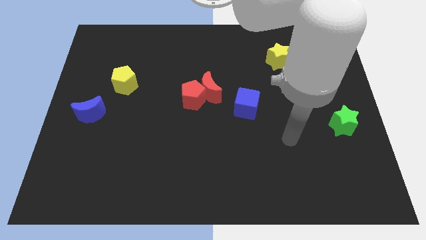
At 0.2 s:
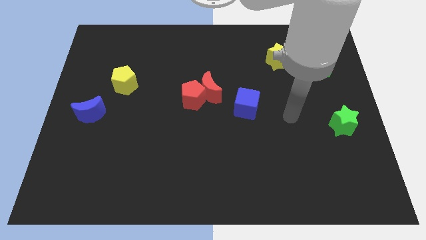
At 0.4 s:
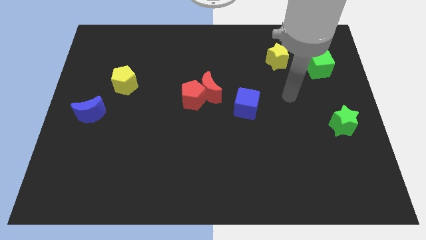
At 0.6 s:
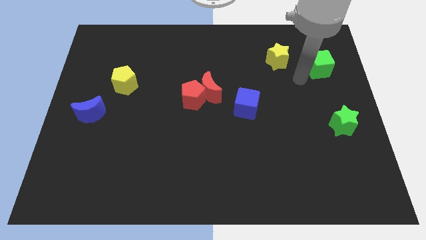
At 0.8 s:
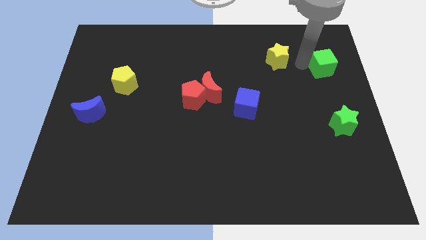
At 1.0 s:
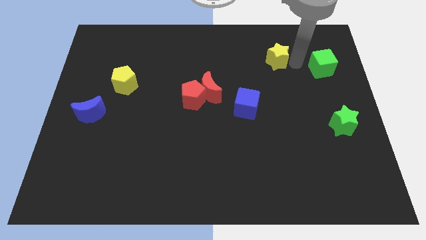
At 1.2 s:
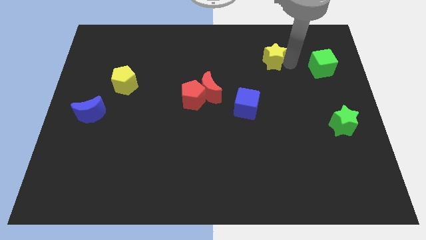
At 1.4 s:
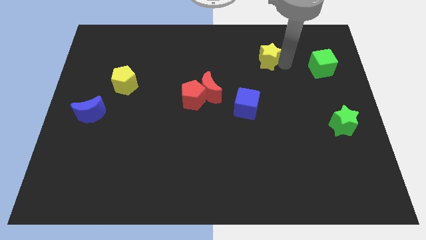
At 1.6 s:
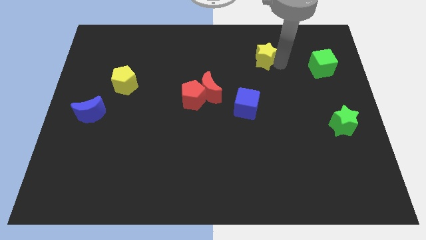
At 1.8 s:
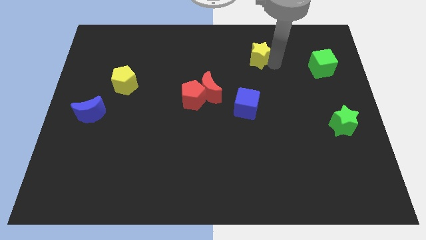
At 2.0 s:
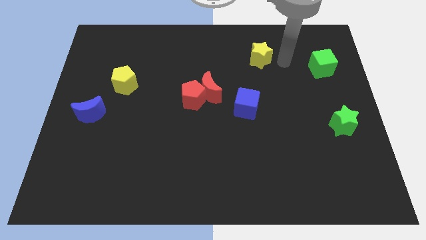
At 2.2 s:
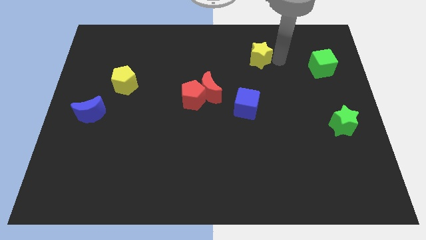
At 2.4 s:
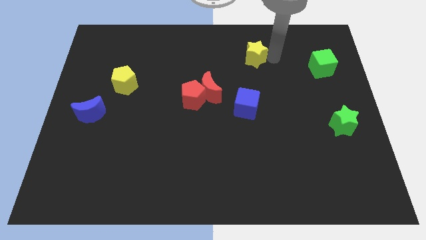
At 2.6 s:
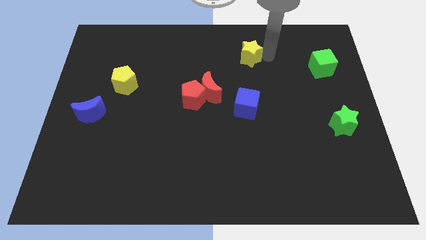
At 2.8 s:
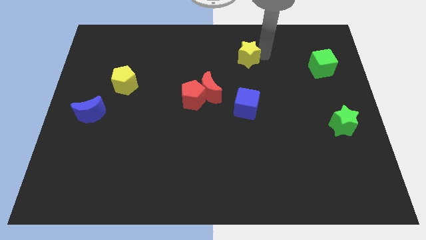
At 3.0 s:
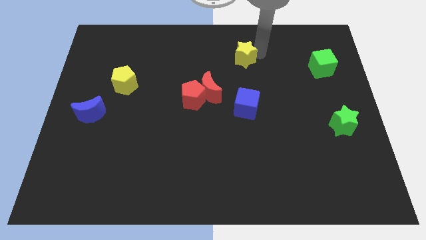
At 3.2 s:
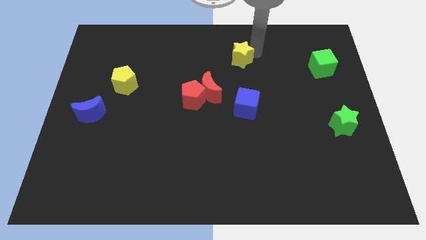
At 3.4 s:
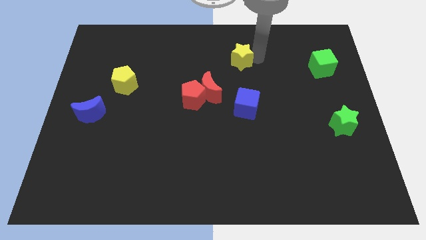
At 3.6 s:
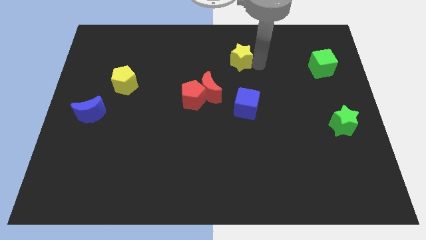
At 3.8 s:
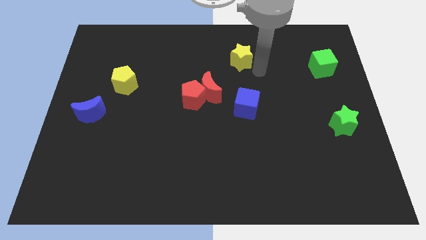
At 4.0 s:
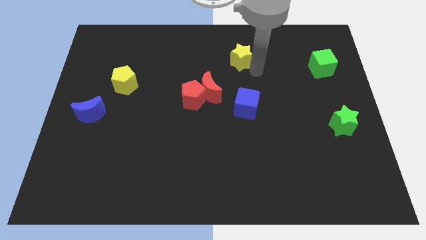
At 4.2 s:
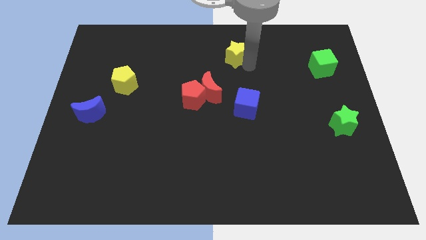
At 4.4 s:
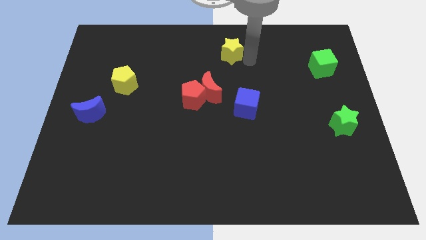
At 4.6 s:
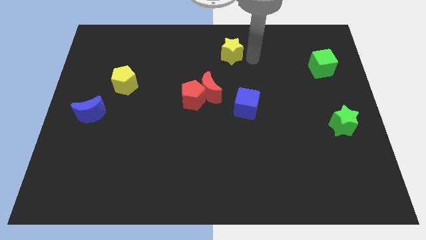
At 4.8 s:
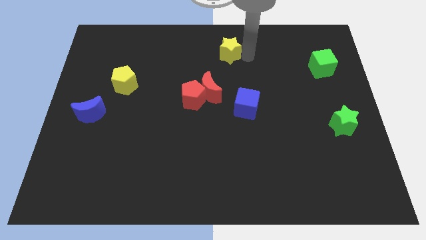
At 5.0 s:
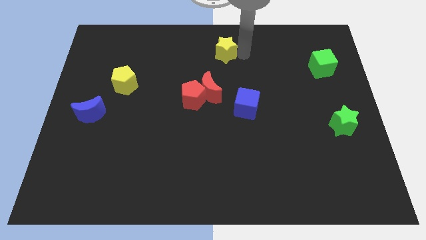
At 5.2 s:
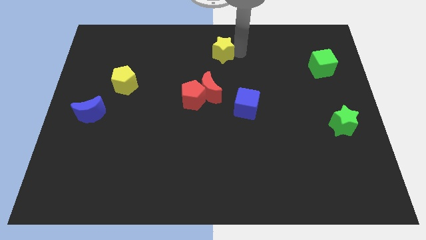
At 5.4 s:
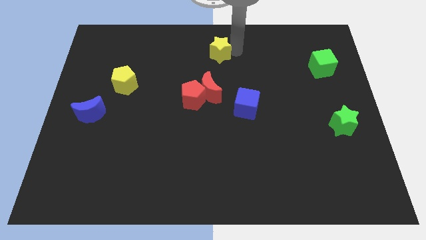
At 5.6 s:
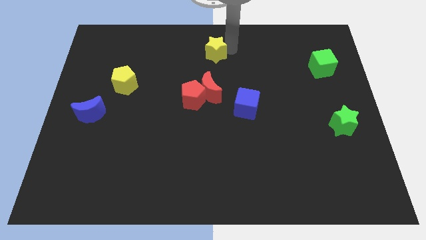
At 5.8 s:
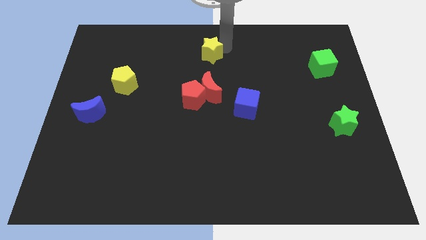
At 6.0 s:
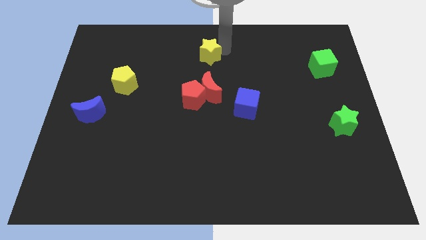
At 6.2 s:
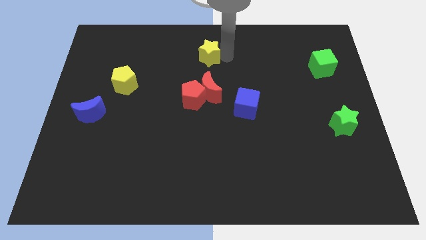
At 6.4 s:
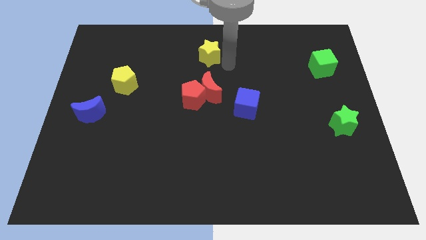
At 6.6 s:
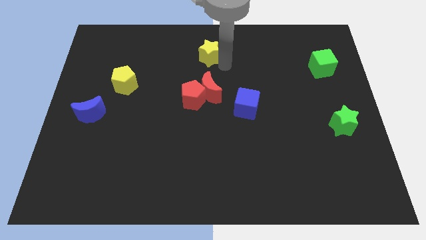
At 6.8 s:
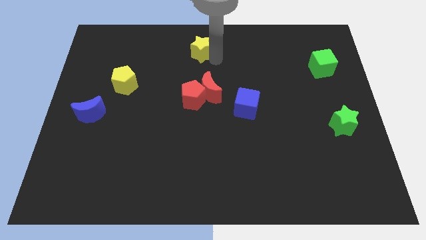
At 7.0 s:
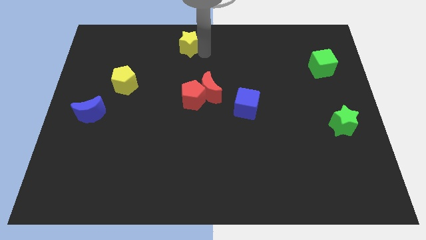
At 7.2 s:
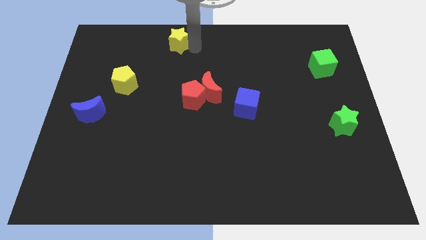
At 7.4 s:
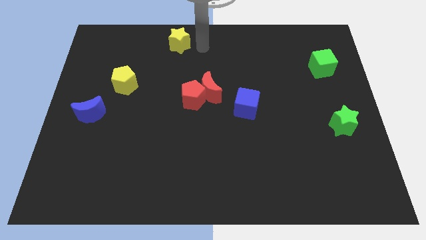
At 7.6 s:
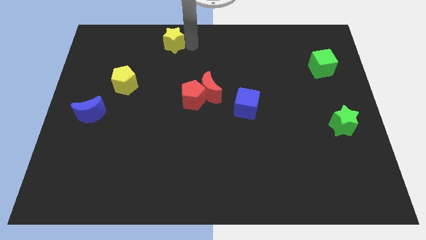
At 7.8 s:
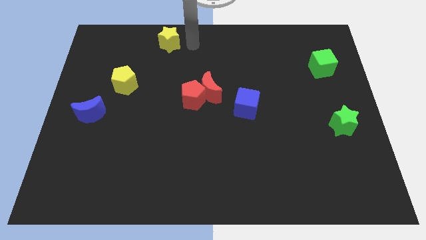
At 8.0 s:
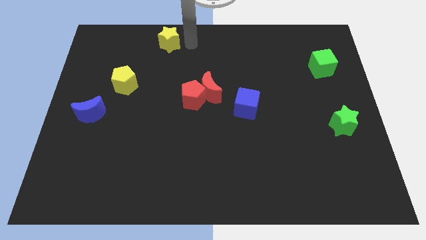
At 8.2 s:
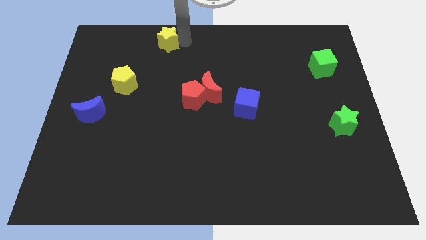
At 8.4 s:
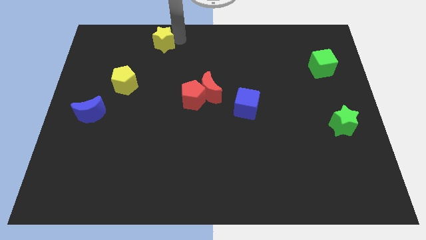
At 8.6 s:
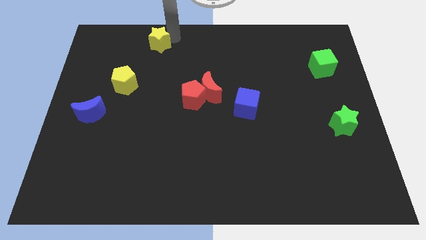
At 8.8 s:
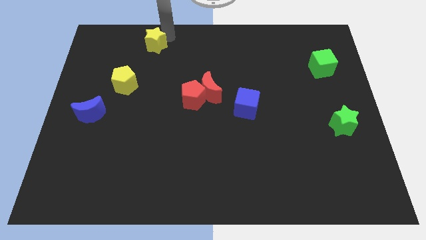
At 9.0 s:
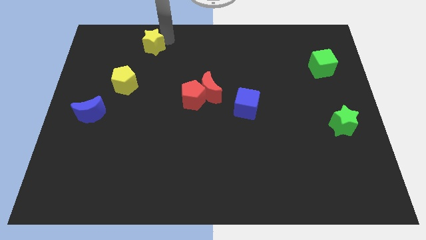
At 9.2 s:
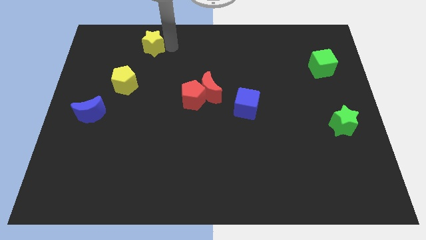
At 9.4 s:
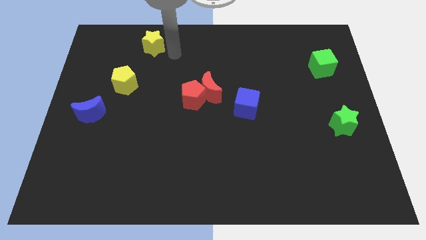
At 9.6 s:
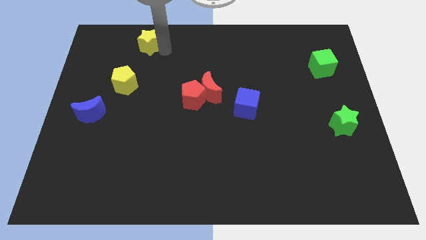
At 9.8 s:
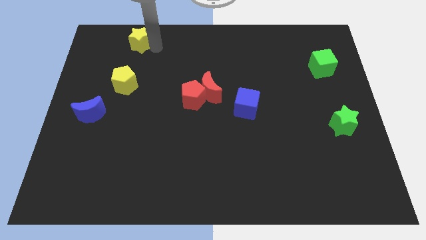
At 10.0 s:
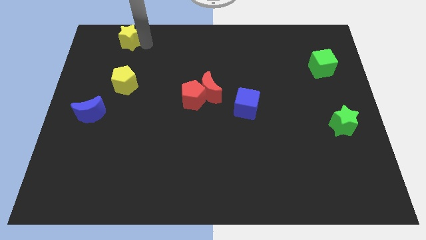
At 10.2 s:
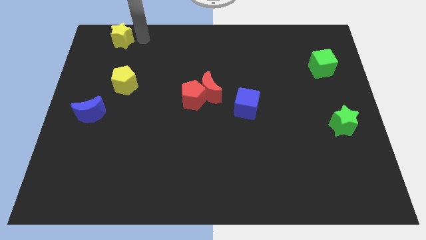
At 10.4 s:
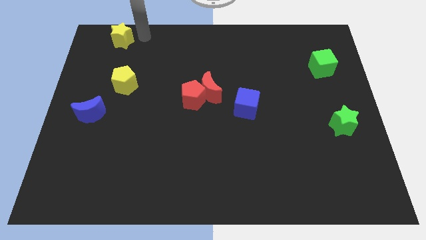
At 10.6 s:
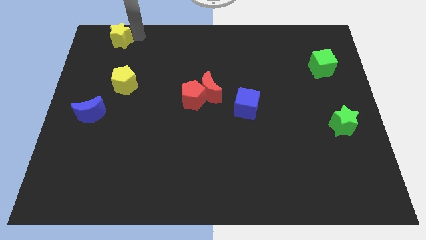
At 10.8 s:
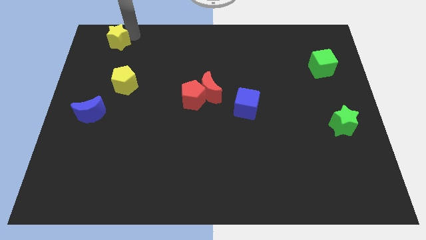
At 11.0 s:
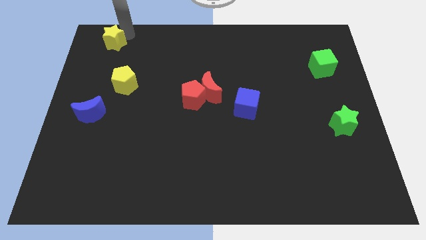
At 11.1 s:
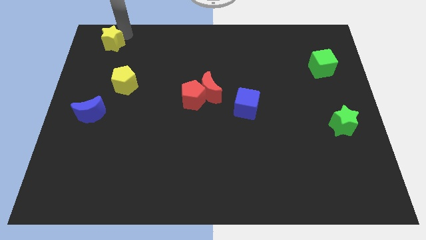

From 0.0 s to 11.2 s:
push the yellow star to the top left corner

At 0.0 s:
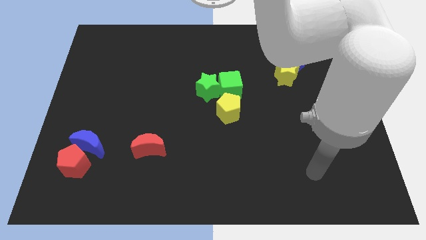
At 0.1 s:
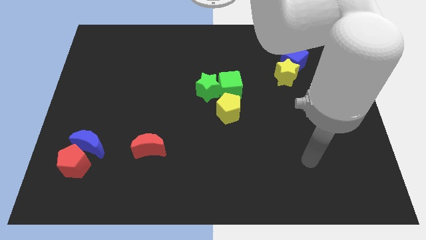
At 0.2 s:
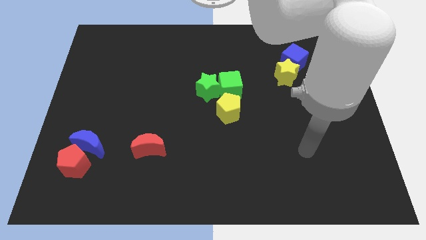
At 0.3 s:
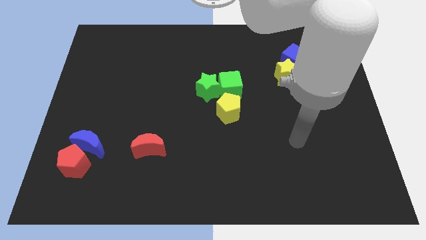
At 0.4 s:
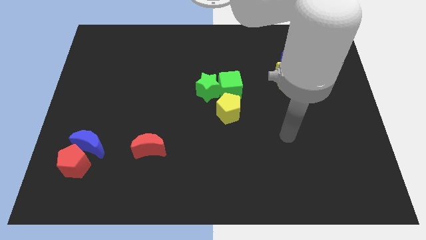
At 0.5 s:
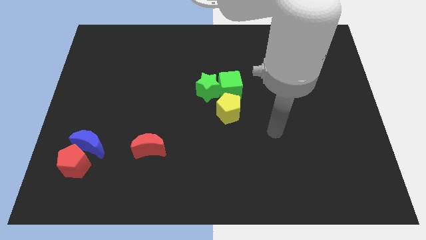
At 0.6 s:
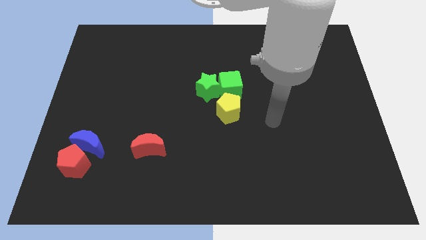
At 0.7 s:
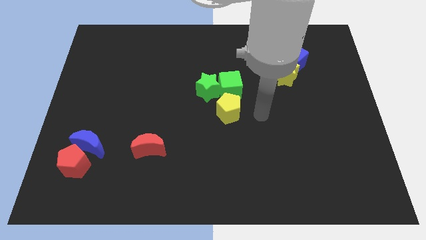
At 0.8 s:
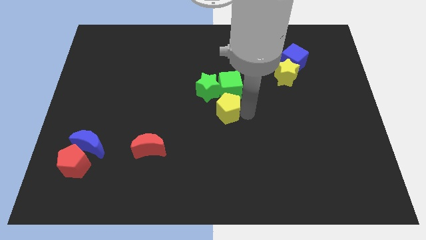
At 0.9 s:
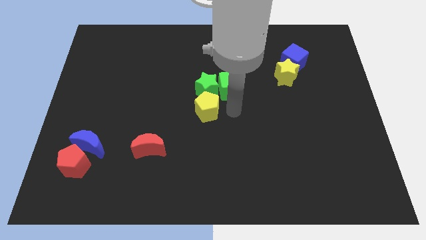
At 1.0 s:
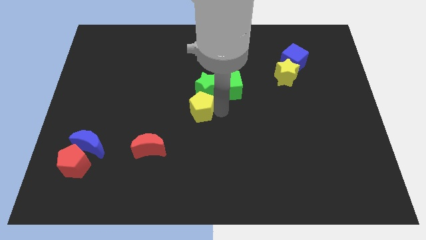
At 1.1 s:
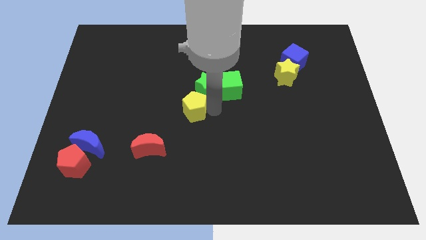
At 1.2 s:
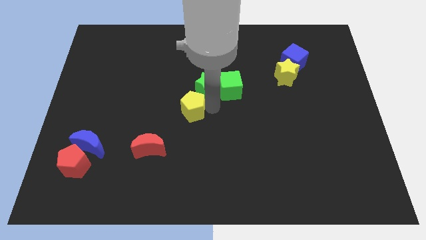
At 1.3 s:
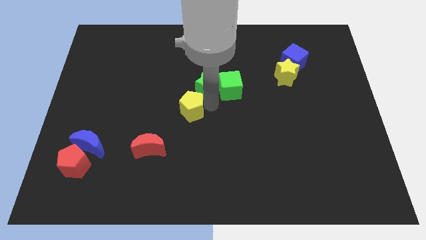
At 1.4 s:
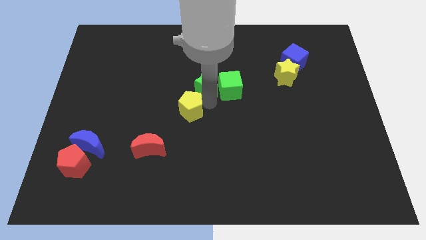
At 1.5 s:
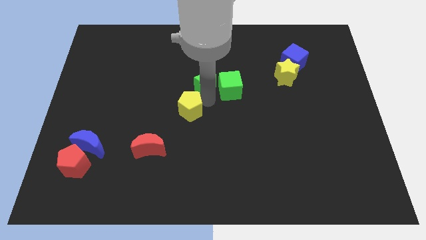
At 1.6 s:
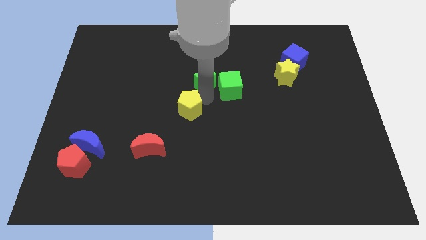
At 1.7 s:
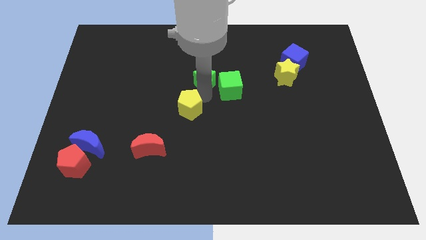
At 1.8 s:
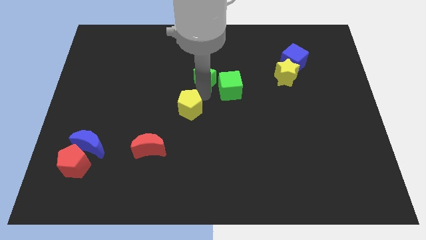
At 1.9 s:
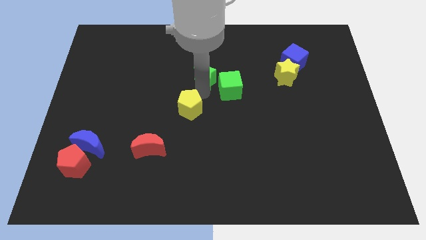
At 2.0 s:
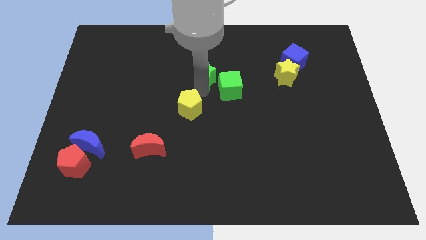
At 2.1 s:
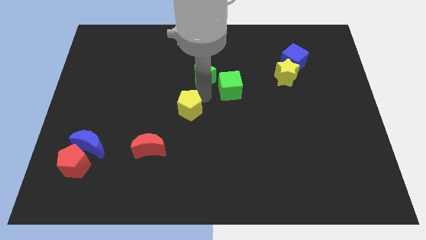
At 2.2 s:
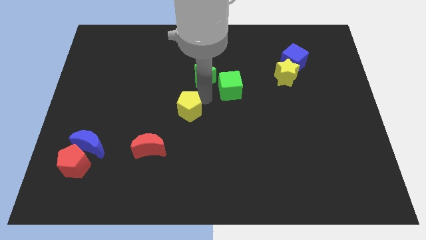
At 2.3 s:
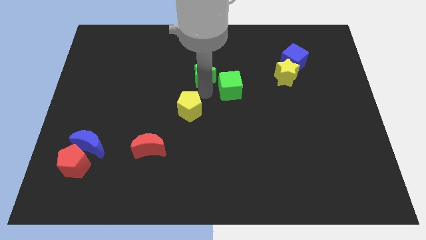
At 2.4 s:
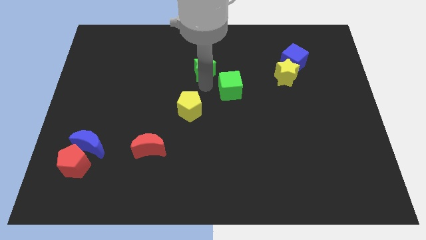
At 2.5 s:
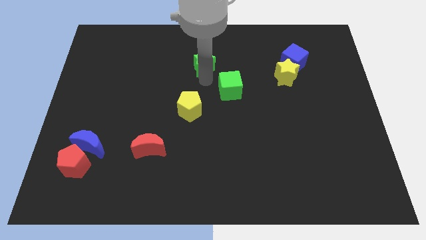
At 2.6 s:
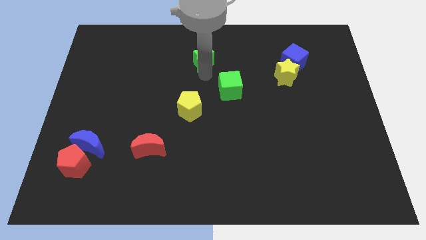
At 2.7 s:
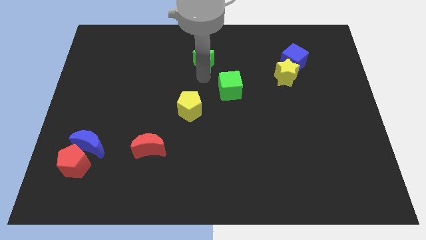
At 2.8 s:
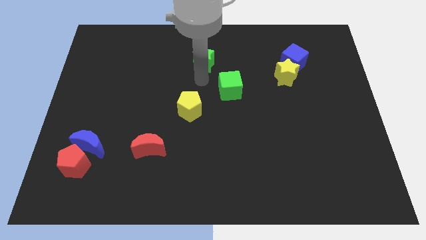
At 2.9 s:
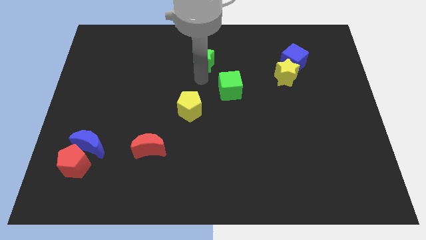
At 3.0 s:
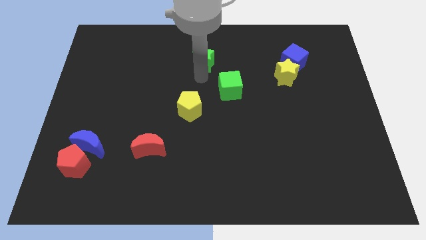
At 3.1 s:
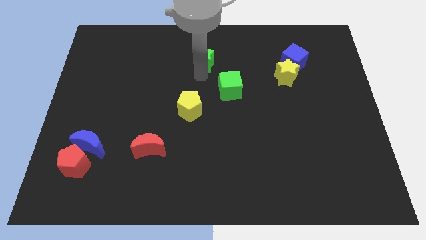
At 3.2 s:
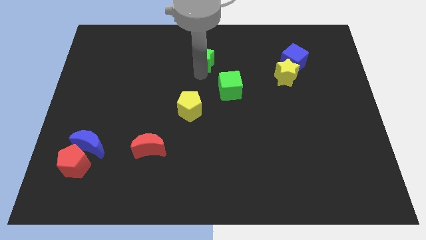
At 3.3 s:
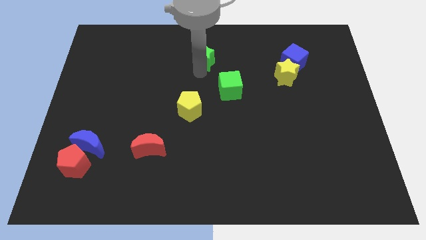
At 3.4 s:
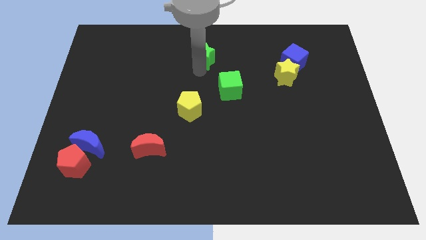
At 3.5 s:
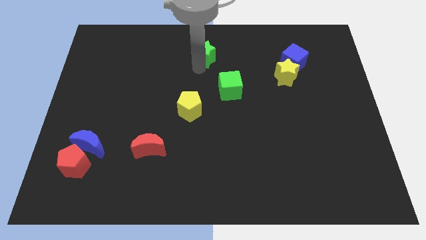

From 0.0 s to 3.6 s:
put the green star to the towards your base
